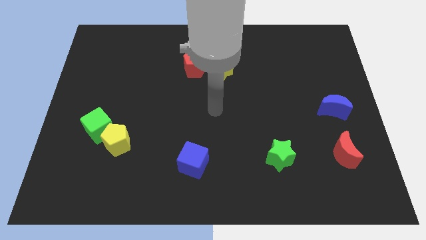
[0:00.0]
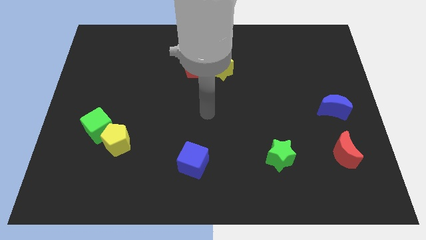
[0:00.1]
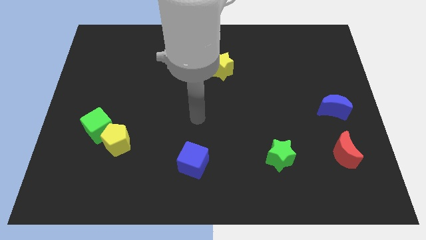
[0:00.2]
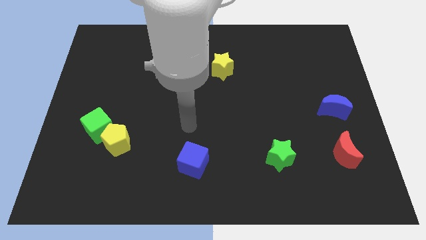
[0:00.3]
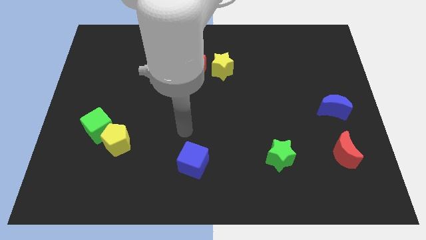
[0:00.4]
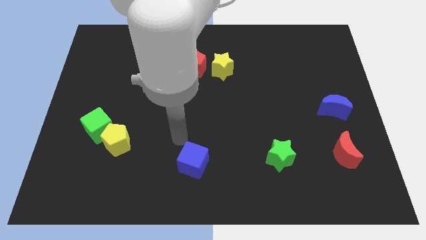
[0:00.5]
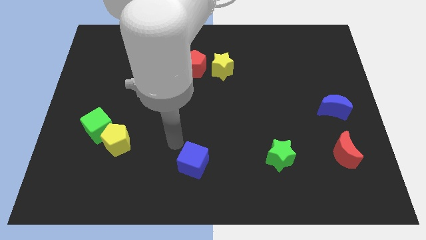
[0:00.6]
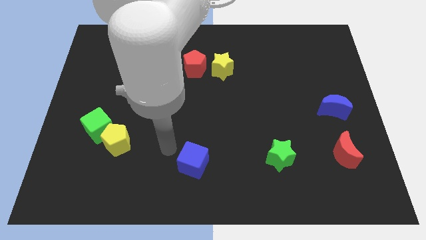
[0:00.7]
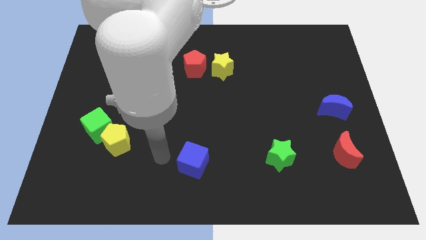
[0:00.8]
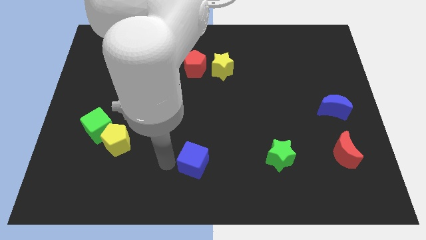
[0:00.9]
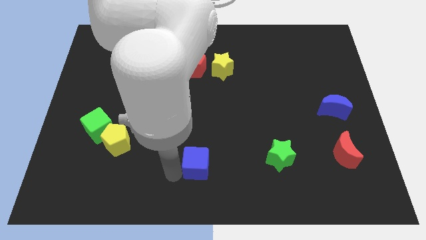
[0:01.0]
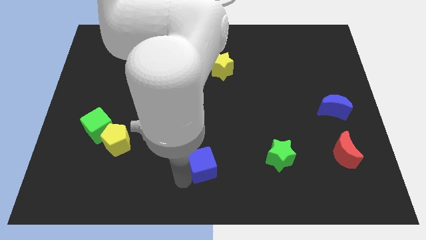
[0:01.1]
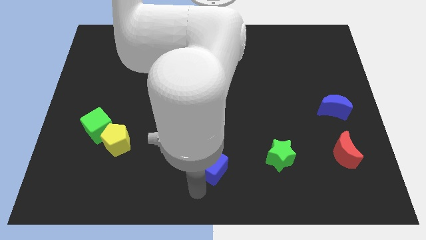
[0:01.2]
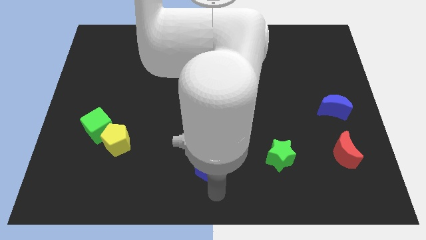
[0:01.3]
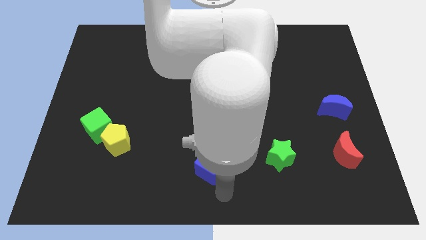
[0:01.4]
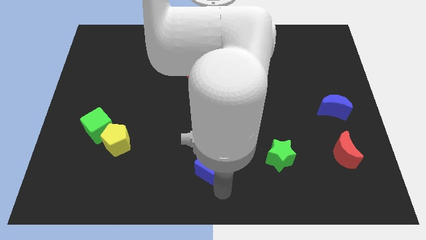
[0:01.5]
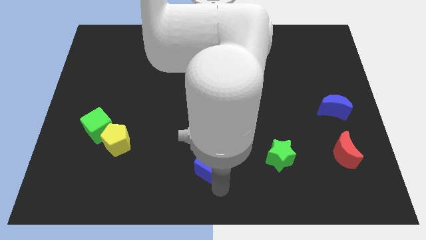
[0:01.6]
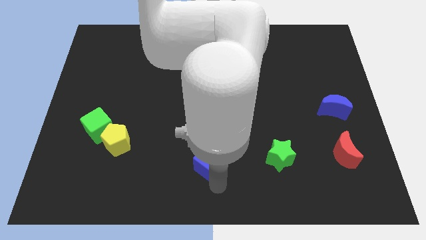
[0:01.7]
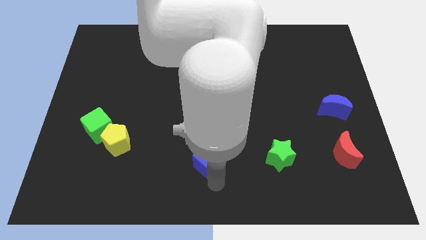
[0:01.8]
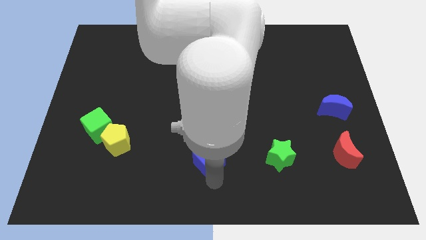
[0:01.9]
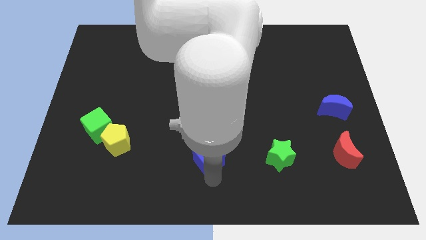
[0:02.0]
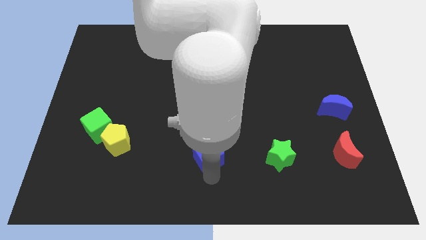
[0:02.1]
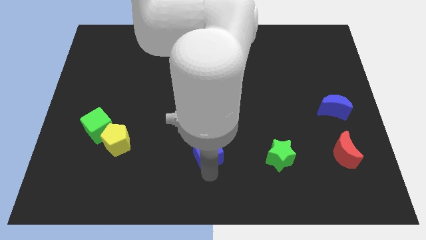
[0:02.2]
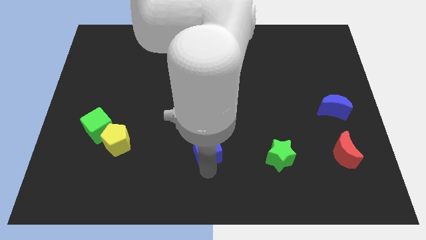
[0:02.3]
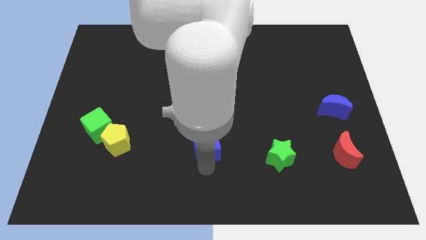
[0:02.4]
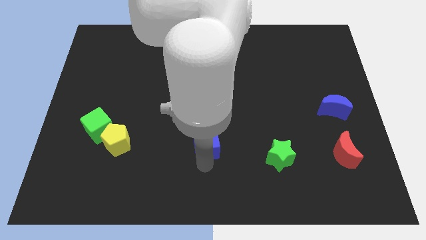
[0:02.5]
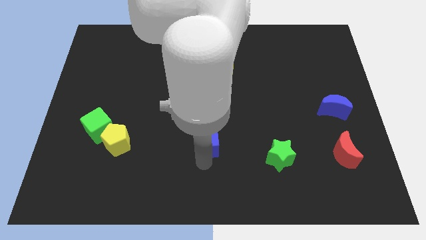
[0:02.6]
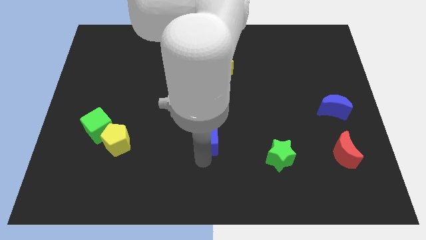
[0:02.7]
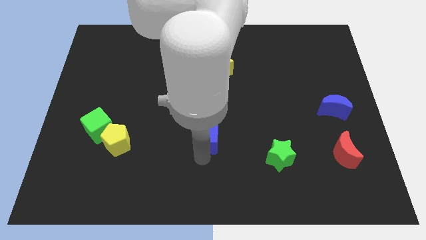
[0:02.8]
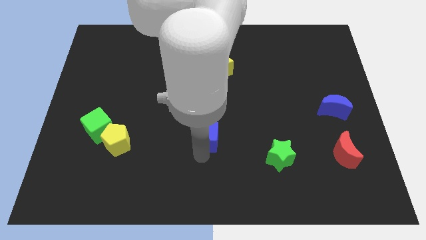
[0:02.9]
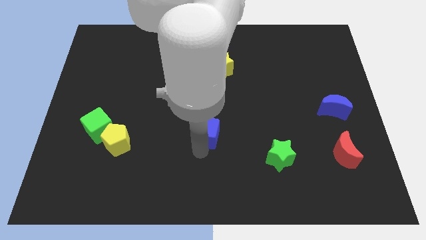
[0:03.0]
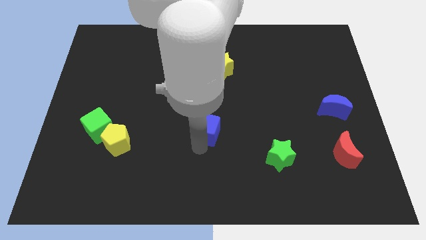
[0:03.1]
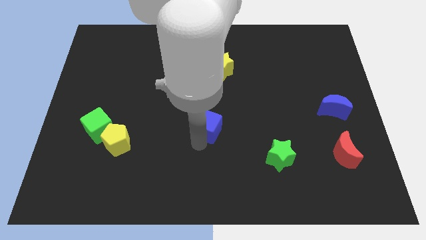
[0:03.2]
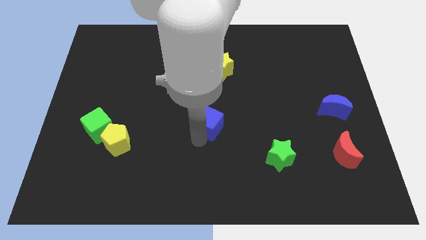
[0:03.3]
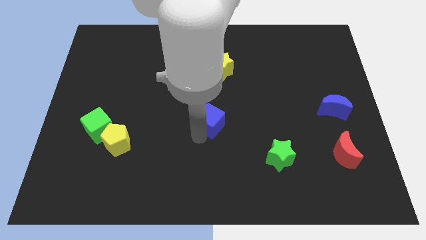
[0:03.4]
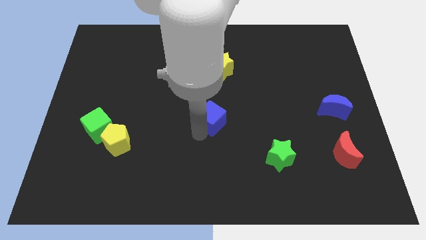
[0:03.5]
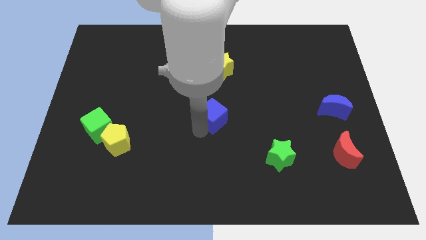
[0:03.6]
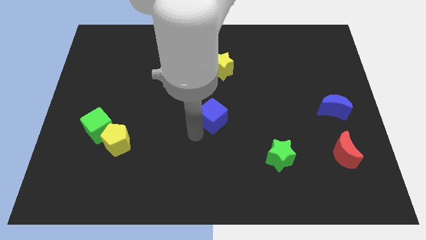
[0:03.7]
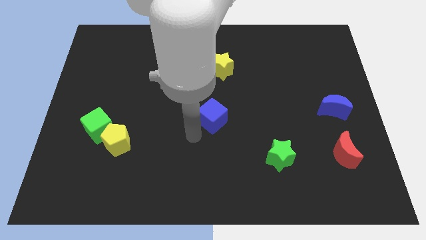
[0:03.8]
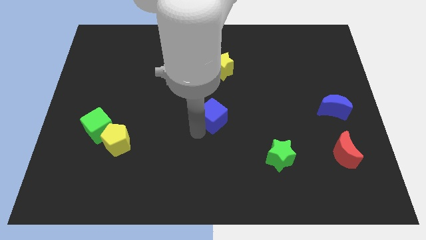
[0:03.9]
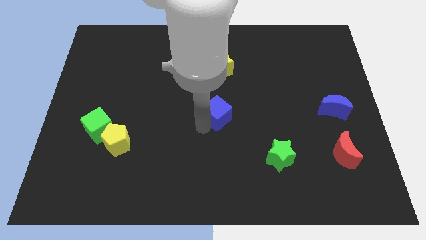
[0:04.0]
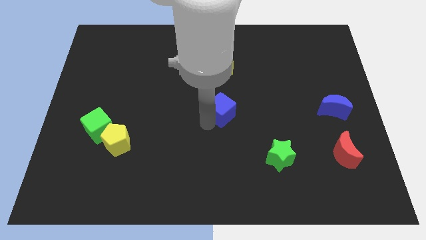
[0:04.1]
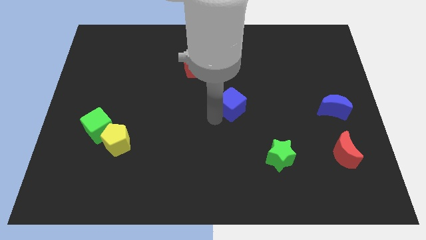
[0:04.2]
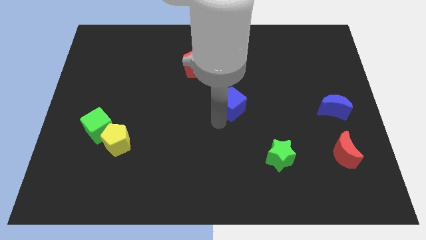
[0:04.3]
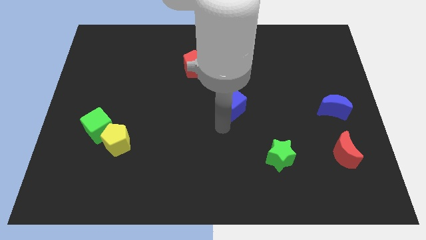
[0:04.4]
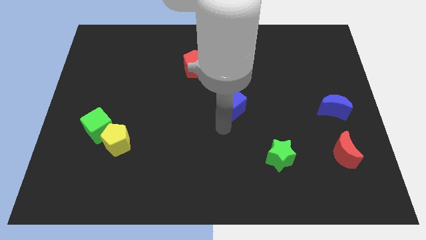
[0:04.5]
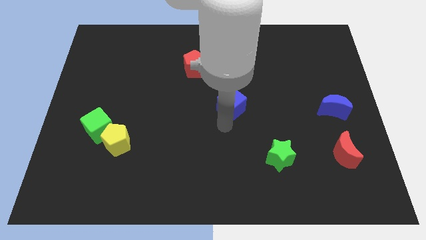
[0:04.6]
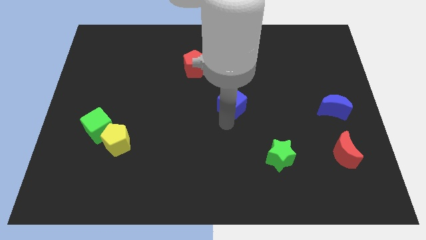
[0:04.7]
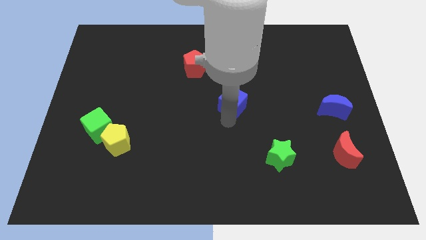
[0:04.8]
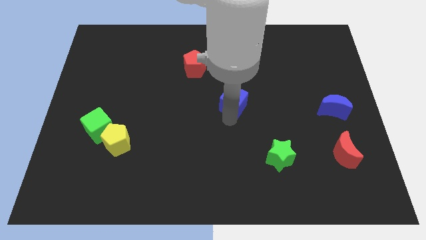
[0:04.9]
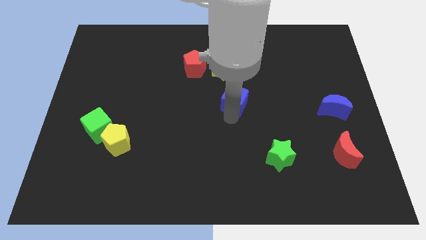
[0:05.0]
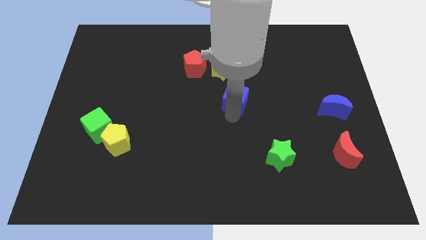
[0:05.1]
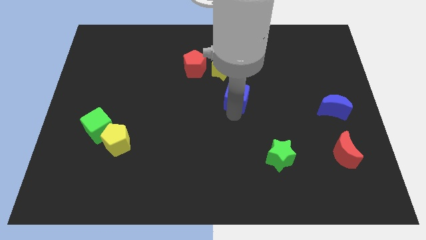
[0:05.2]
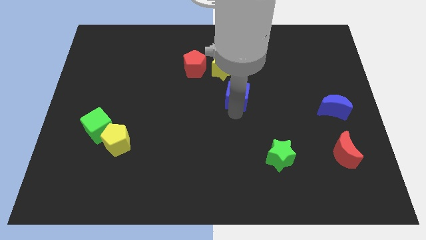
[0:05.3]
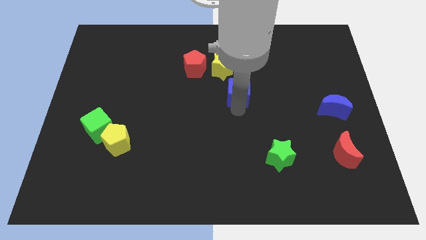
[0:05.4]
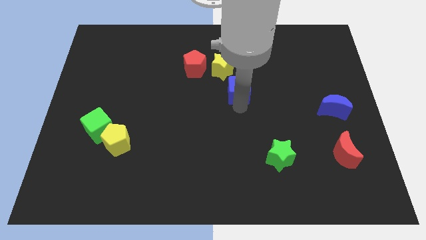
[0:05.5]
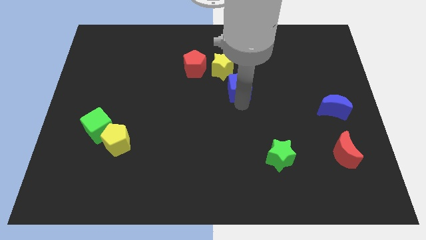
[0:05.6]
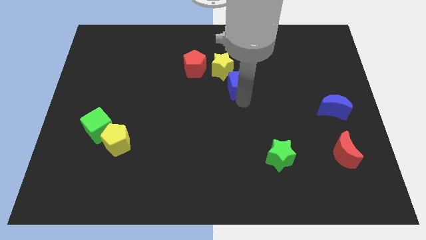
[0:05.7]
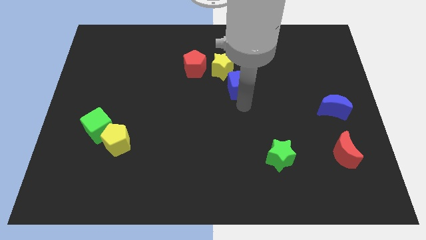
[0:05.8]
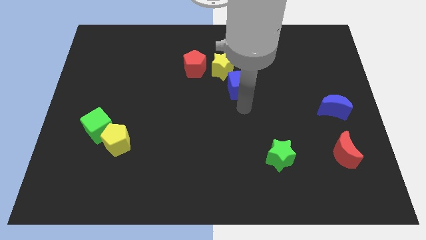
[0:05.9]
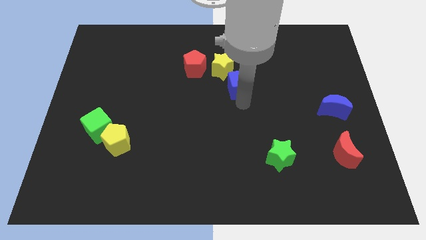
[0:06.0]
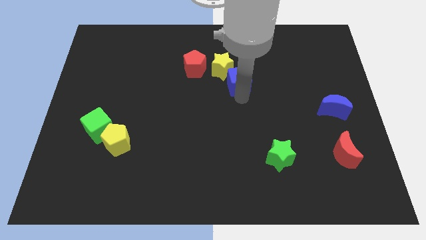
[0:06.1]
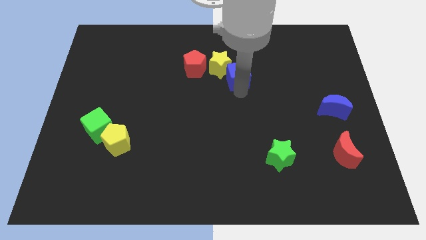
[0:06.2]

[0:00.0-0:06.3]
slide the blue cube just right of the red pentagon

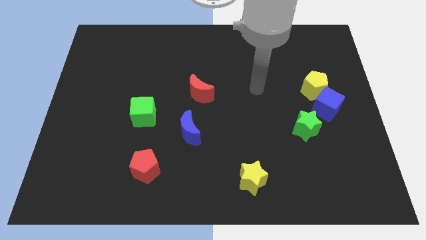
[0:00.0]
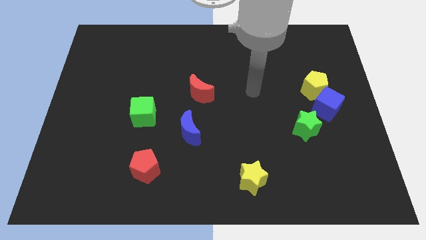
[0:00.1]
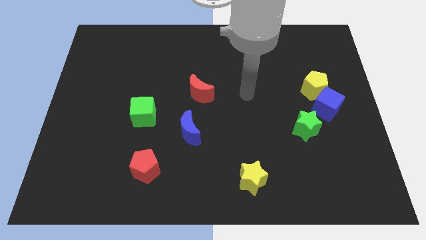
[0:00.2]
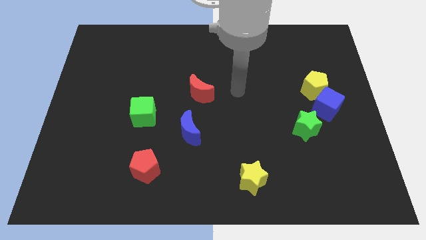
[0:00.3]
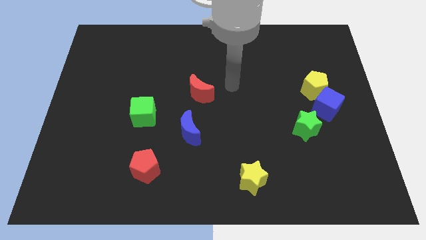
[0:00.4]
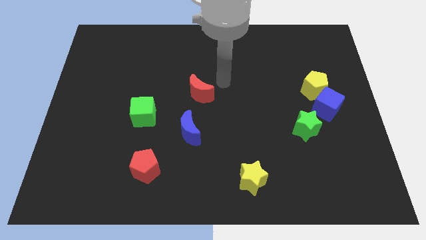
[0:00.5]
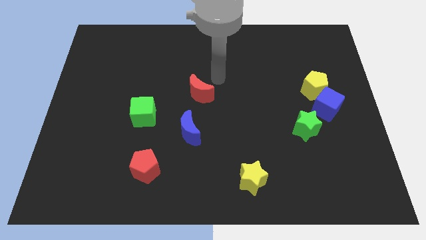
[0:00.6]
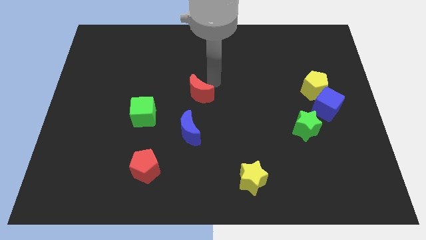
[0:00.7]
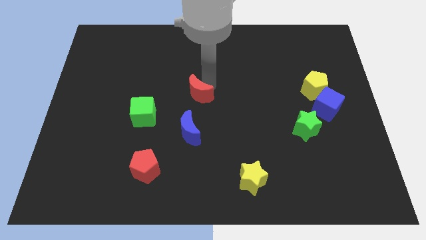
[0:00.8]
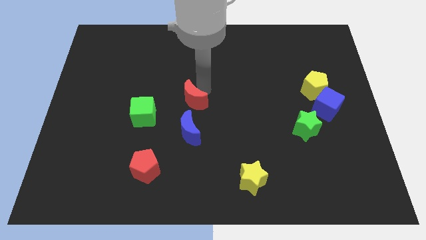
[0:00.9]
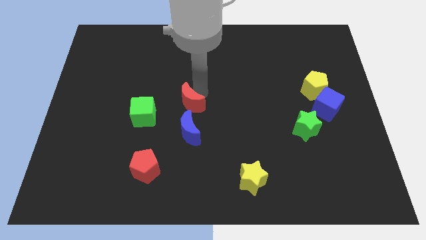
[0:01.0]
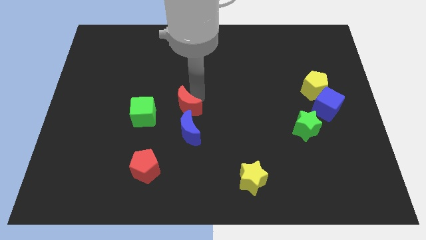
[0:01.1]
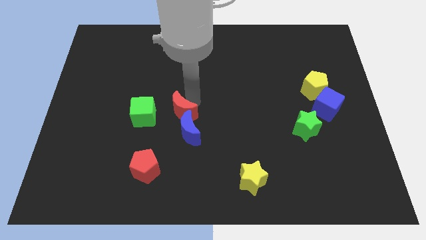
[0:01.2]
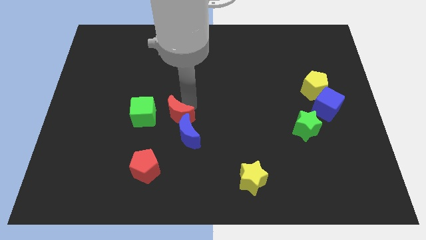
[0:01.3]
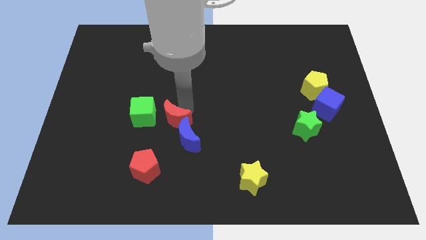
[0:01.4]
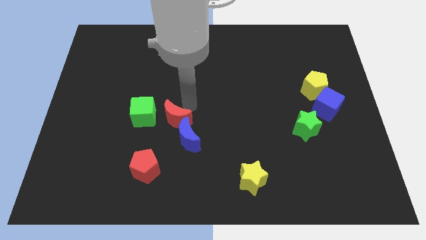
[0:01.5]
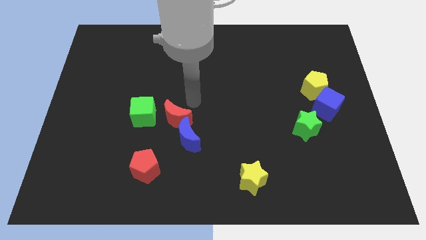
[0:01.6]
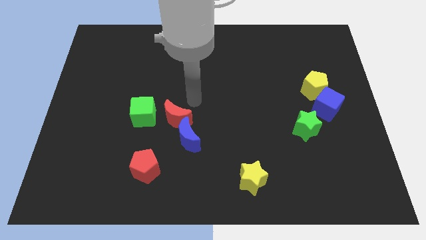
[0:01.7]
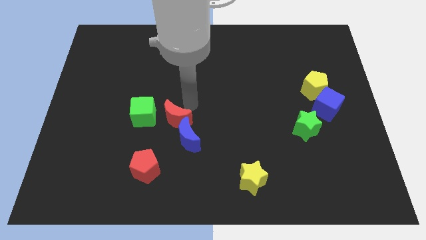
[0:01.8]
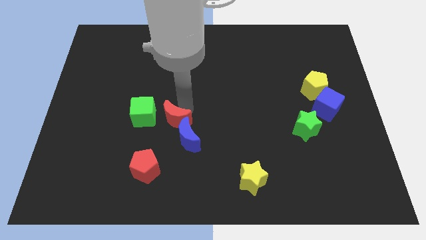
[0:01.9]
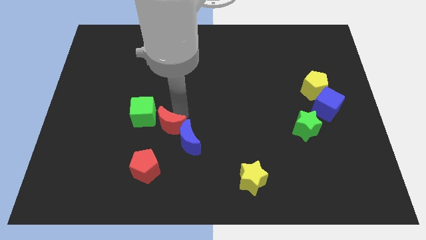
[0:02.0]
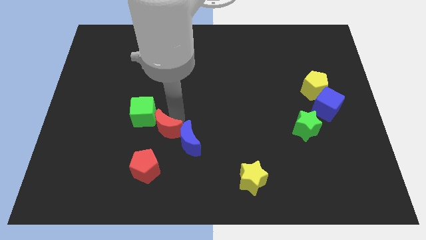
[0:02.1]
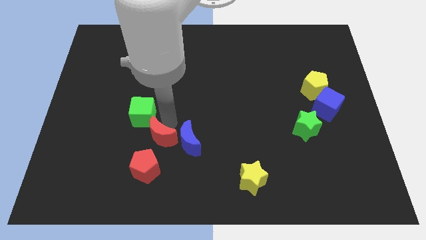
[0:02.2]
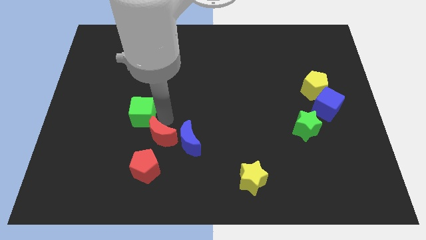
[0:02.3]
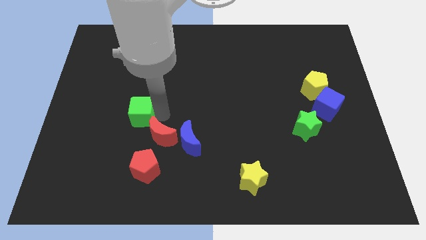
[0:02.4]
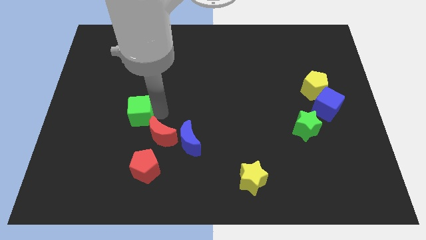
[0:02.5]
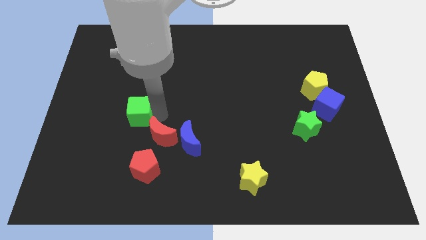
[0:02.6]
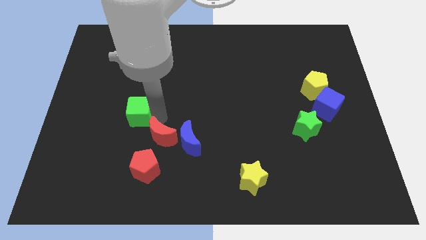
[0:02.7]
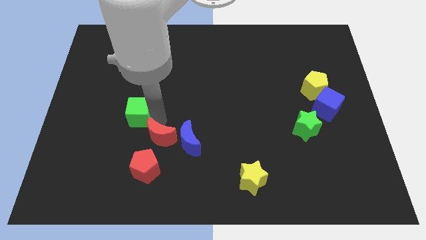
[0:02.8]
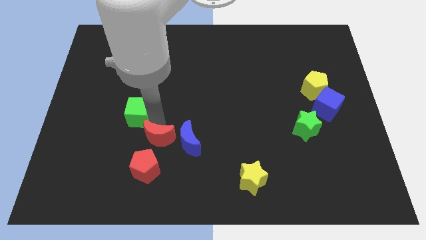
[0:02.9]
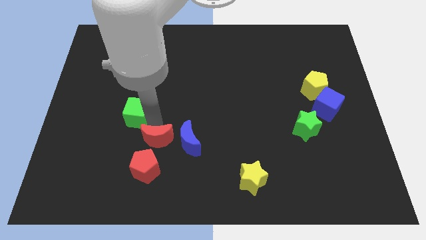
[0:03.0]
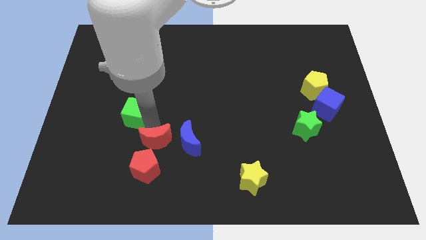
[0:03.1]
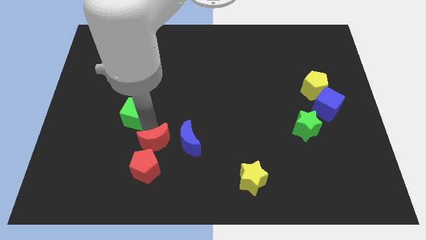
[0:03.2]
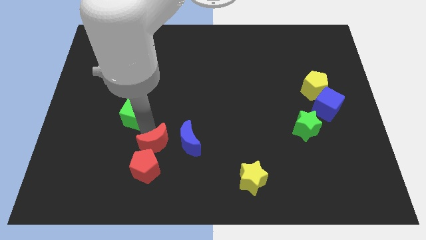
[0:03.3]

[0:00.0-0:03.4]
move the red moon to the bottom left side of the blue moon
